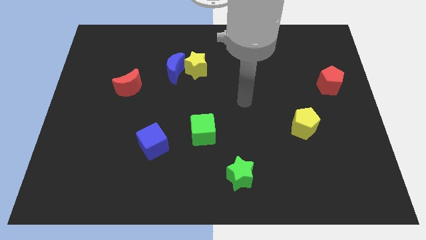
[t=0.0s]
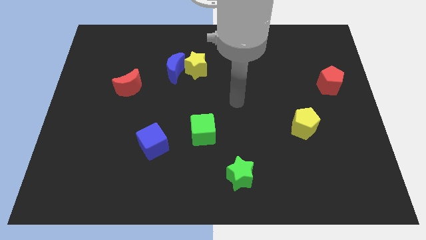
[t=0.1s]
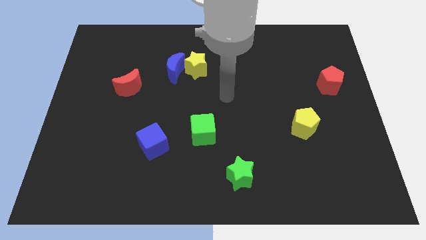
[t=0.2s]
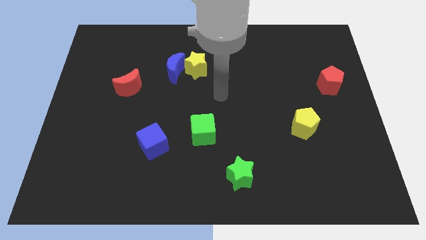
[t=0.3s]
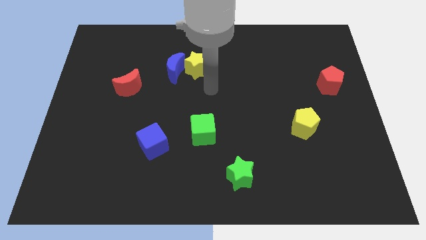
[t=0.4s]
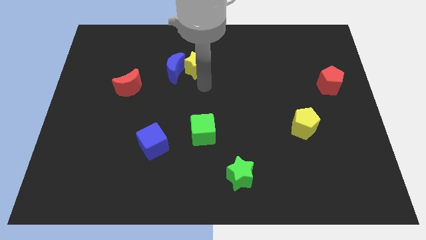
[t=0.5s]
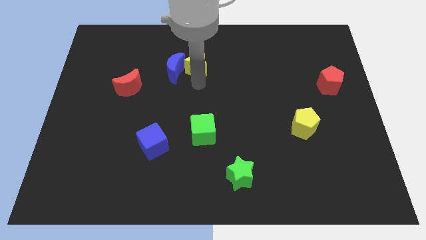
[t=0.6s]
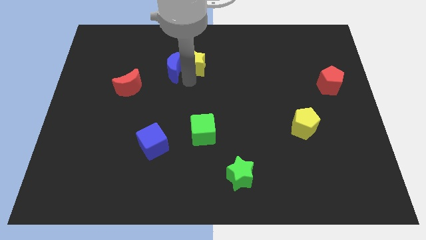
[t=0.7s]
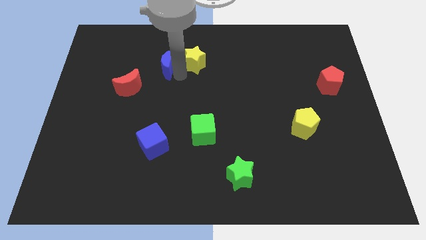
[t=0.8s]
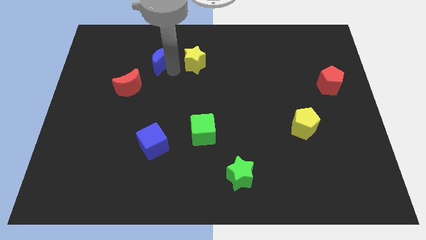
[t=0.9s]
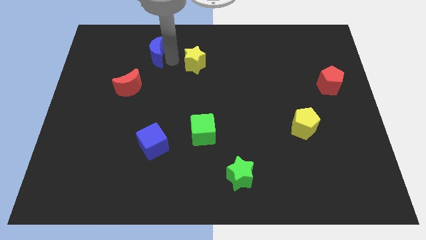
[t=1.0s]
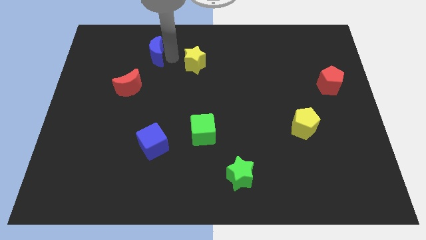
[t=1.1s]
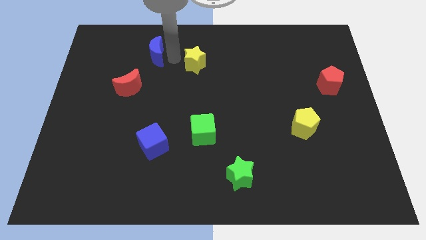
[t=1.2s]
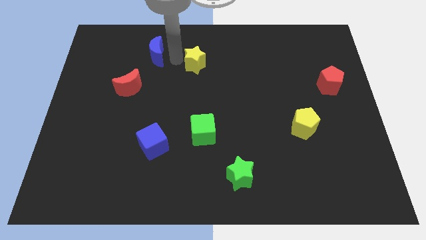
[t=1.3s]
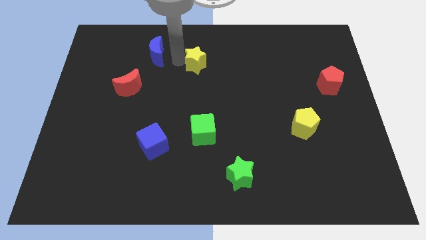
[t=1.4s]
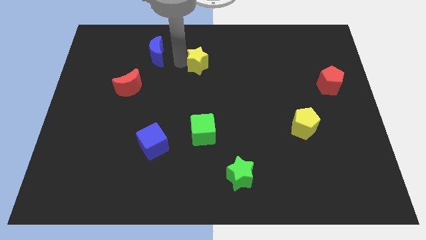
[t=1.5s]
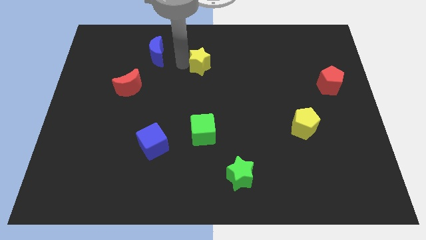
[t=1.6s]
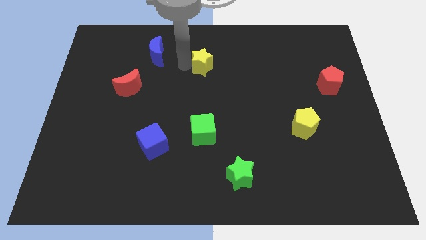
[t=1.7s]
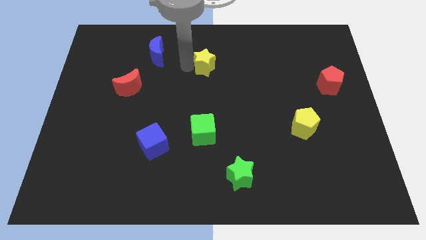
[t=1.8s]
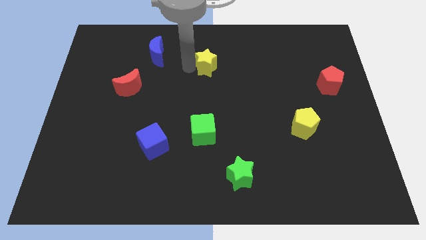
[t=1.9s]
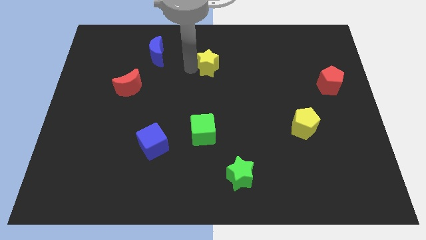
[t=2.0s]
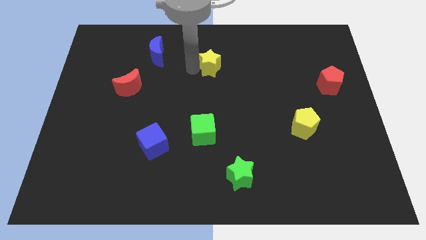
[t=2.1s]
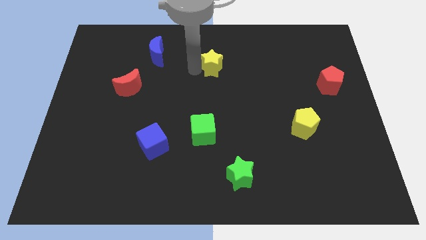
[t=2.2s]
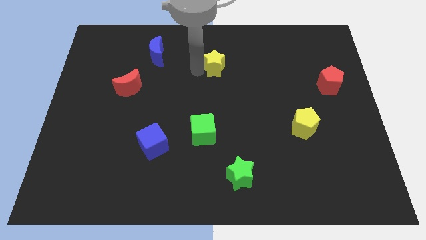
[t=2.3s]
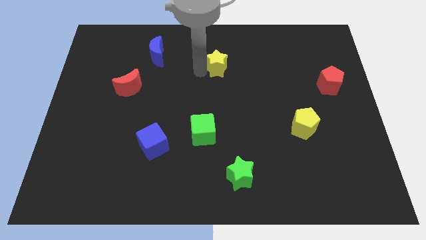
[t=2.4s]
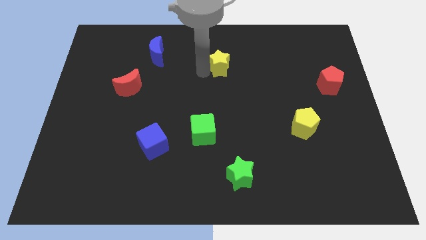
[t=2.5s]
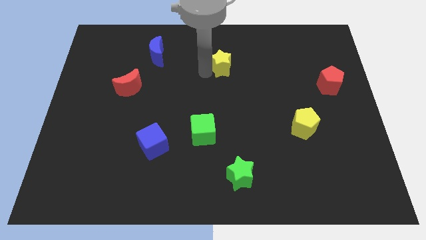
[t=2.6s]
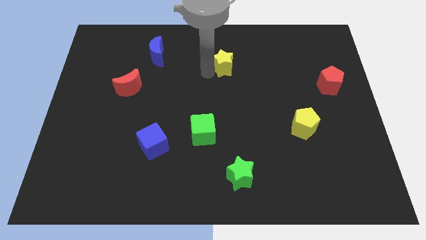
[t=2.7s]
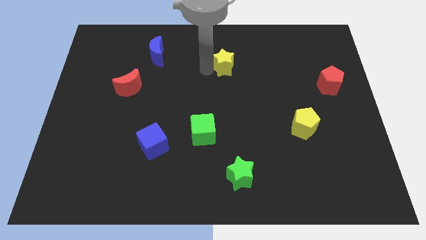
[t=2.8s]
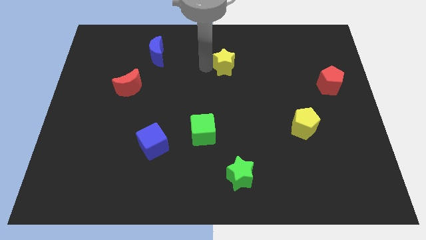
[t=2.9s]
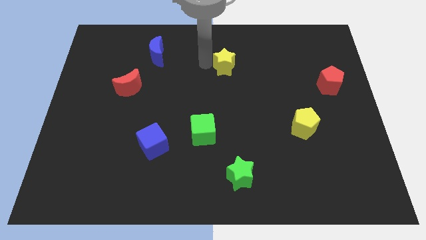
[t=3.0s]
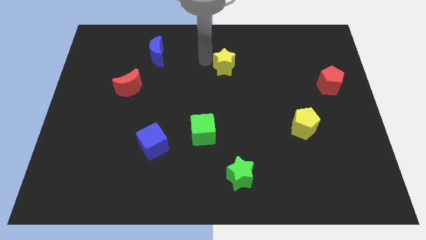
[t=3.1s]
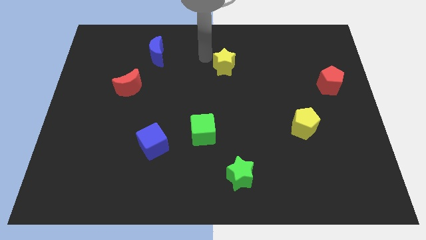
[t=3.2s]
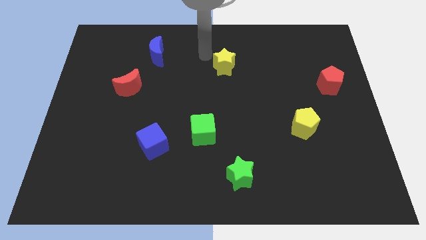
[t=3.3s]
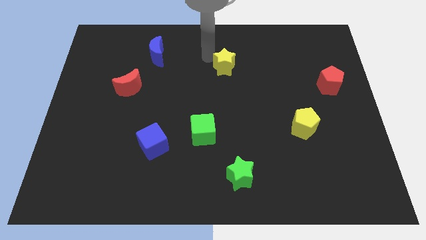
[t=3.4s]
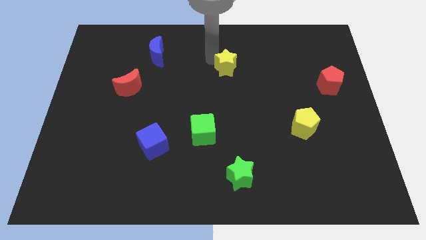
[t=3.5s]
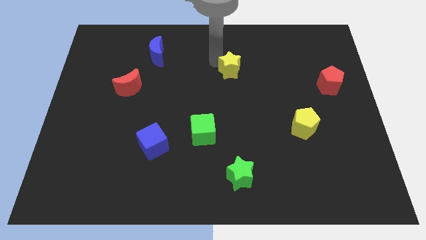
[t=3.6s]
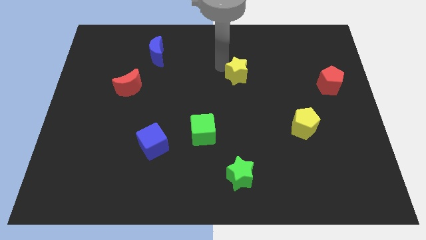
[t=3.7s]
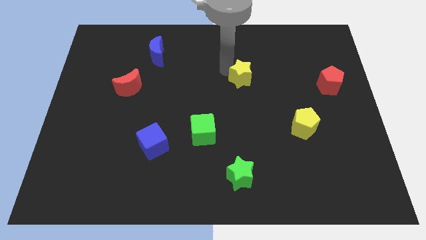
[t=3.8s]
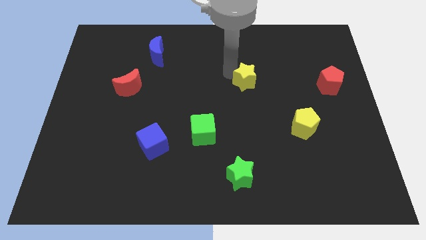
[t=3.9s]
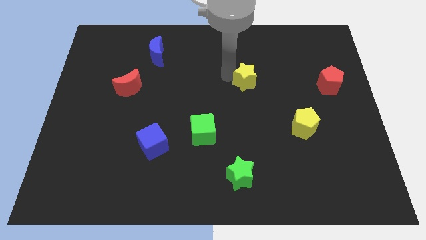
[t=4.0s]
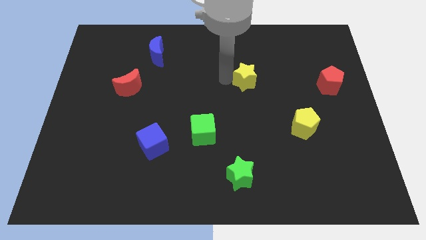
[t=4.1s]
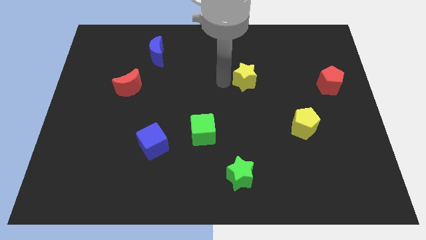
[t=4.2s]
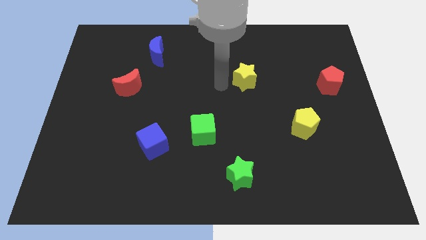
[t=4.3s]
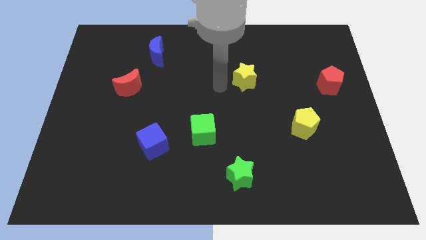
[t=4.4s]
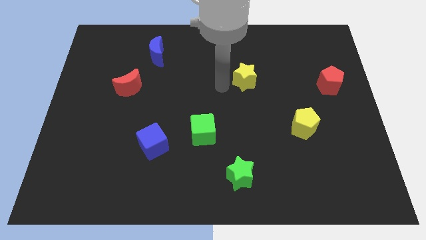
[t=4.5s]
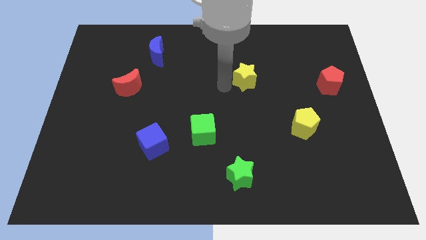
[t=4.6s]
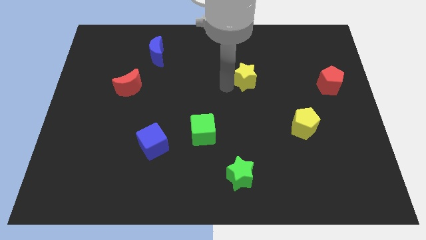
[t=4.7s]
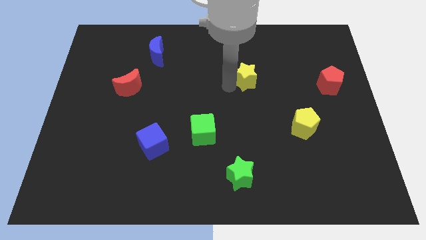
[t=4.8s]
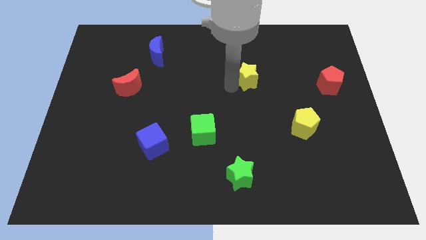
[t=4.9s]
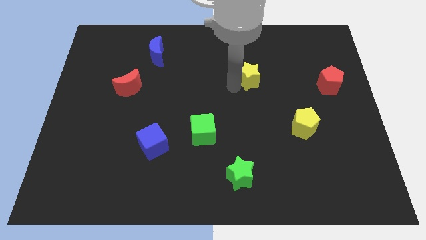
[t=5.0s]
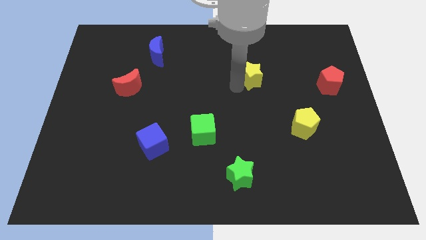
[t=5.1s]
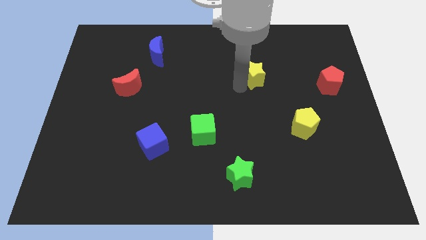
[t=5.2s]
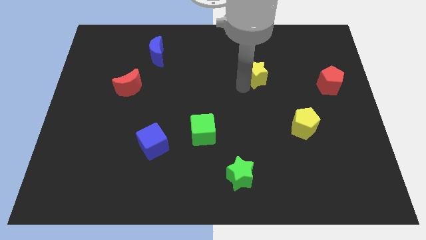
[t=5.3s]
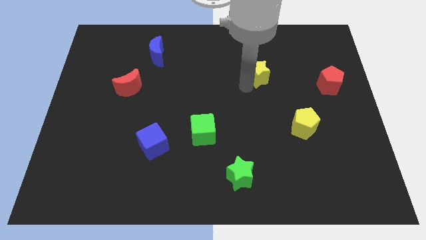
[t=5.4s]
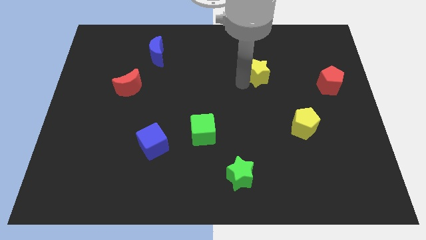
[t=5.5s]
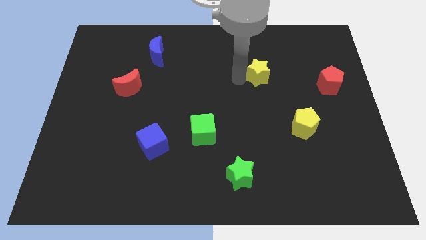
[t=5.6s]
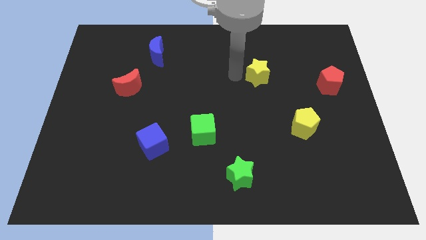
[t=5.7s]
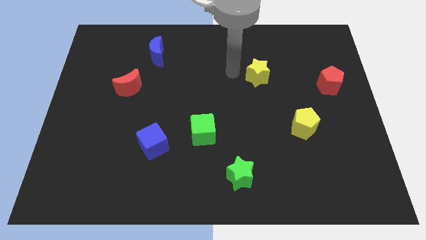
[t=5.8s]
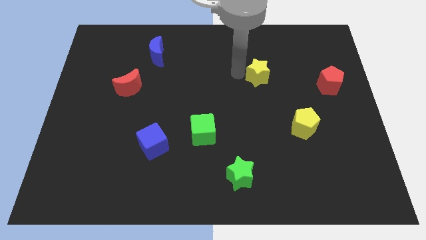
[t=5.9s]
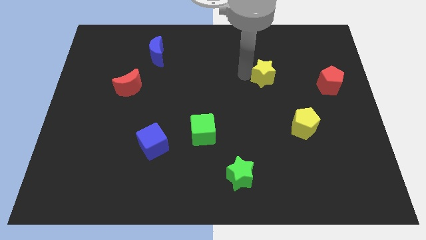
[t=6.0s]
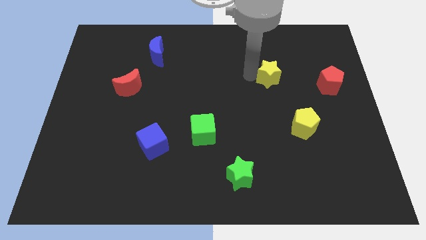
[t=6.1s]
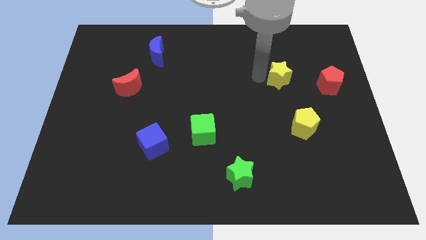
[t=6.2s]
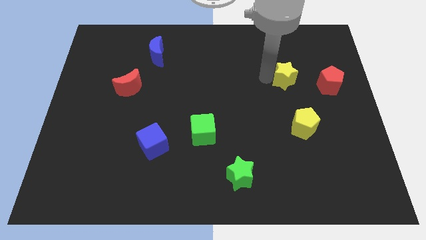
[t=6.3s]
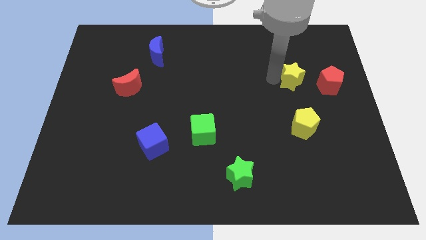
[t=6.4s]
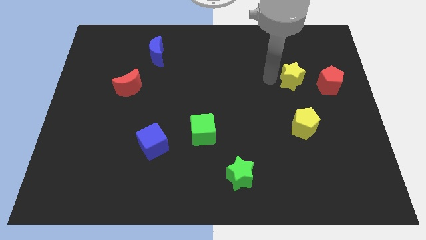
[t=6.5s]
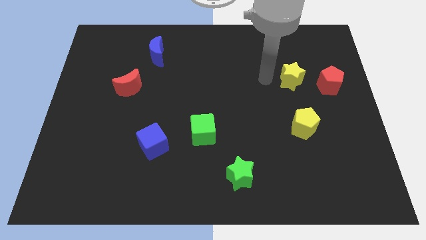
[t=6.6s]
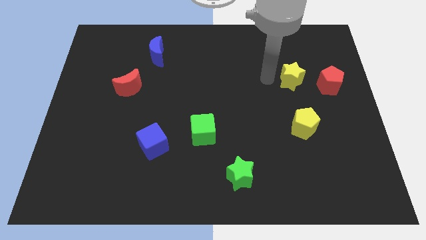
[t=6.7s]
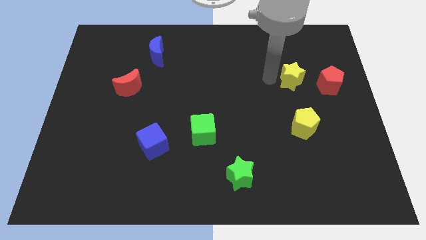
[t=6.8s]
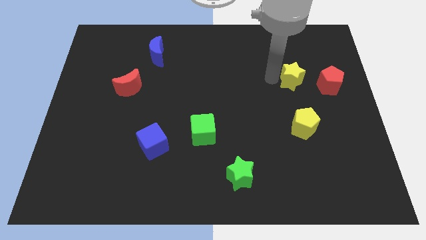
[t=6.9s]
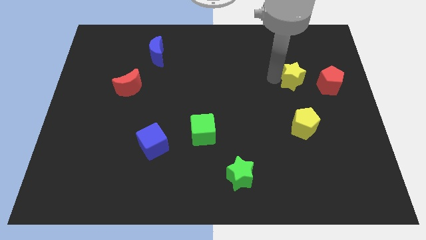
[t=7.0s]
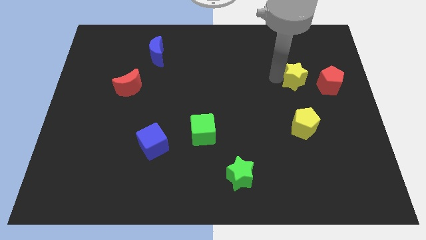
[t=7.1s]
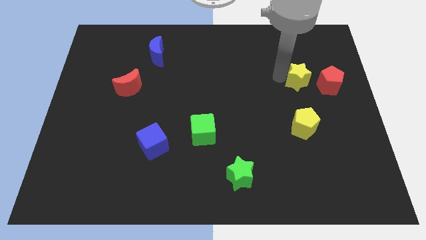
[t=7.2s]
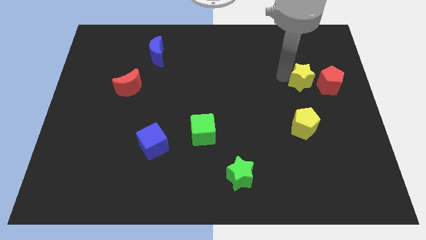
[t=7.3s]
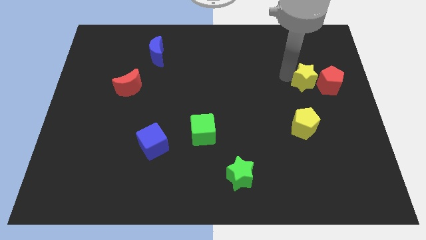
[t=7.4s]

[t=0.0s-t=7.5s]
slide the yellow star to the red pentagon
